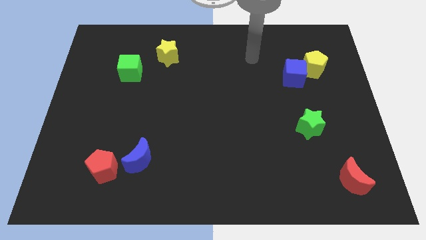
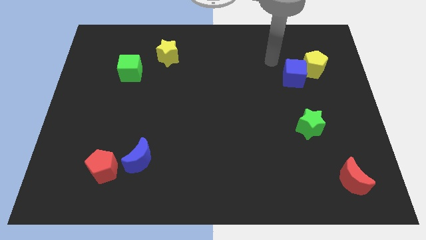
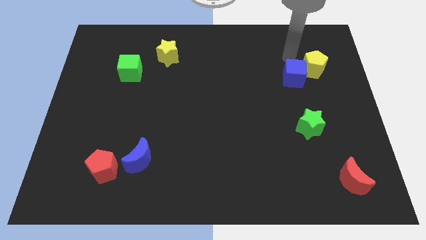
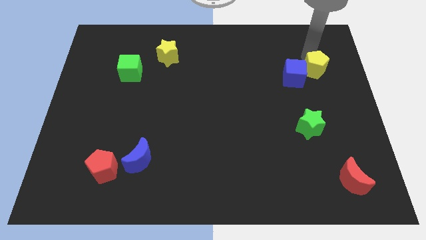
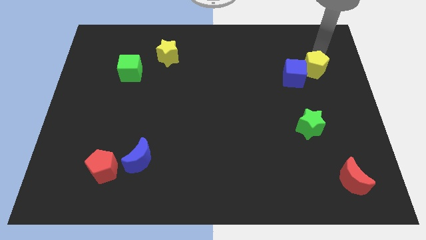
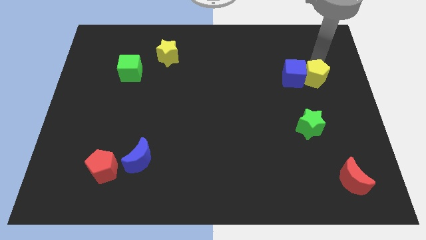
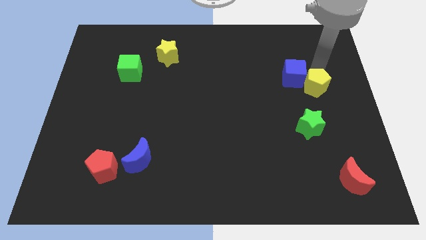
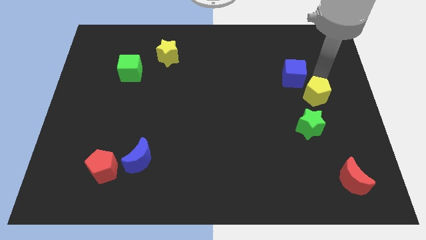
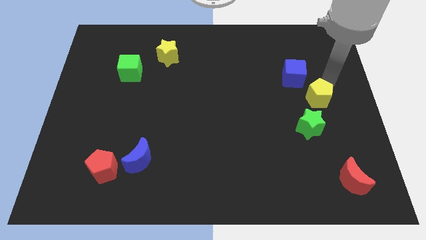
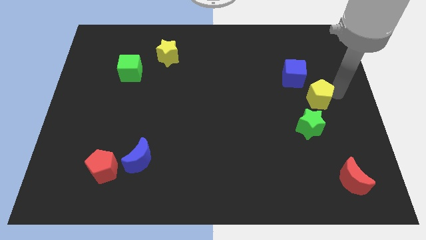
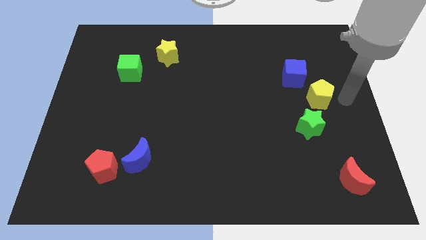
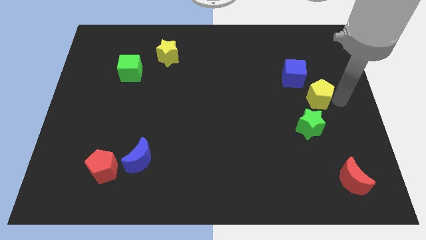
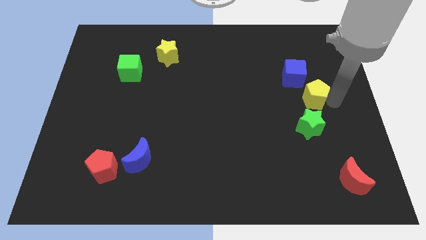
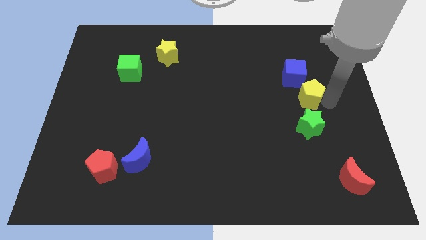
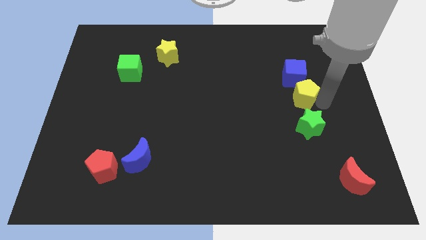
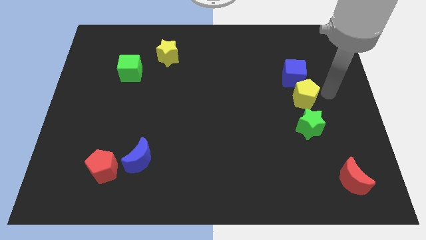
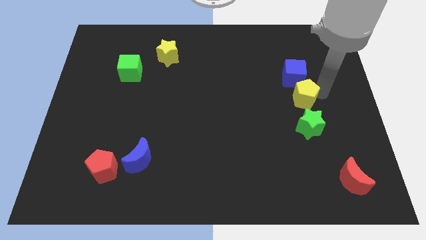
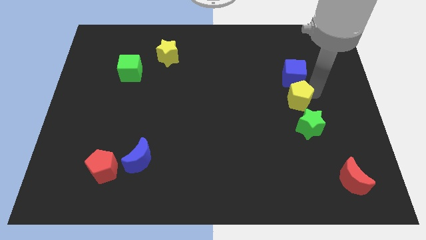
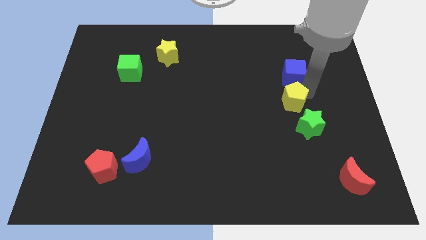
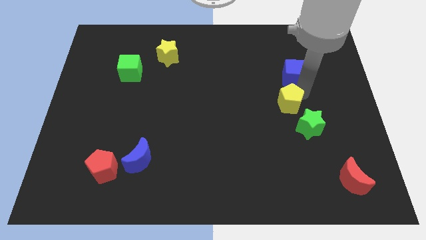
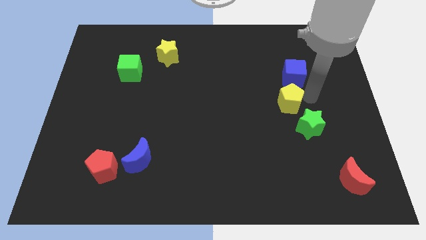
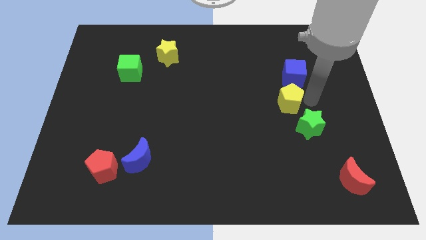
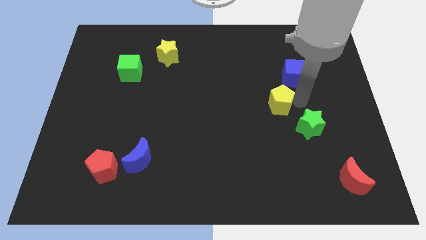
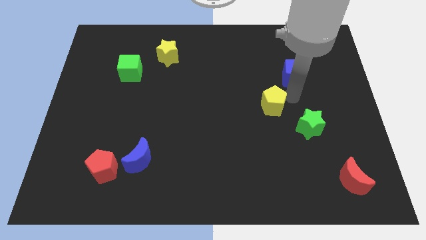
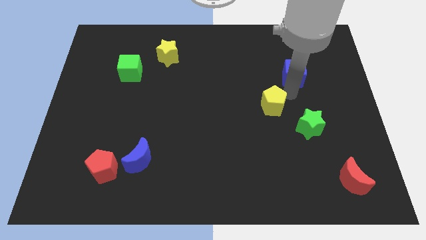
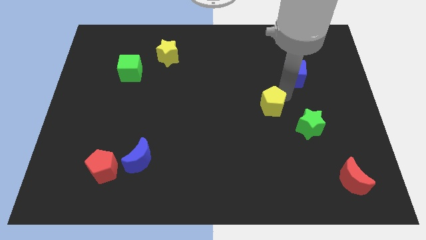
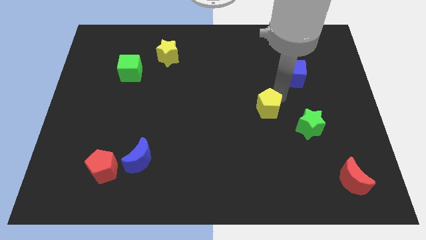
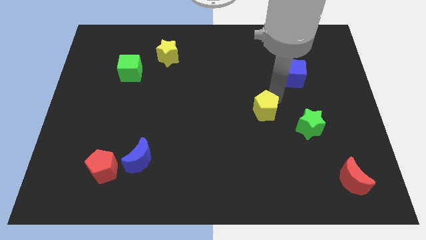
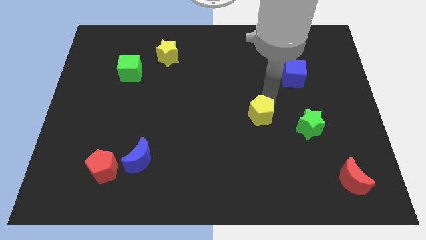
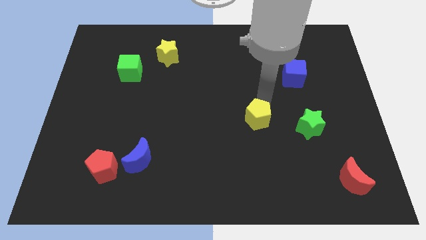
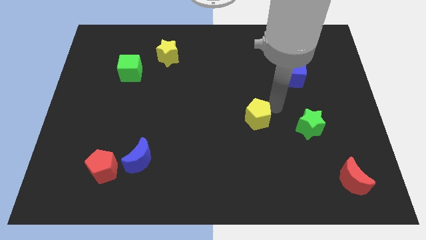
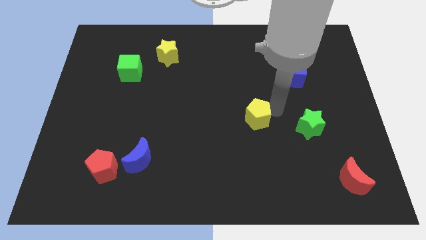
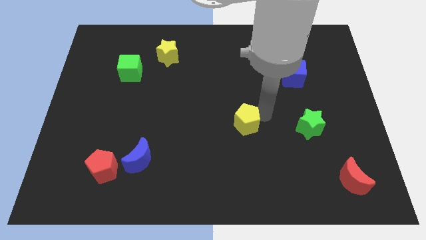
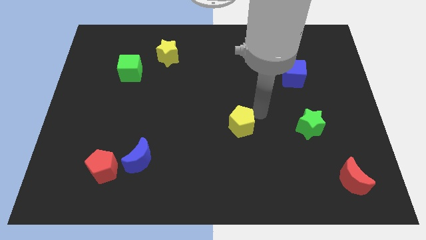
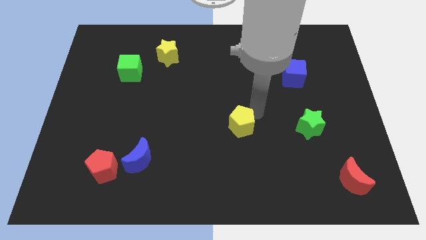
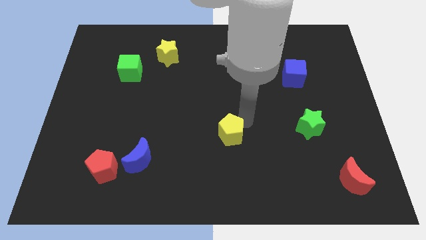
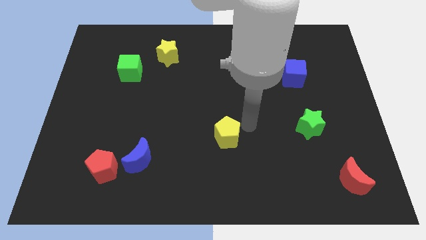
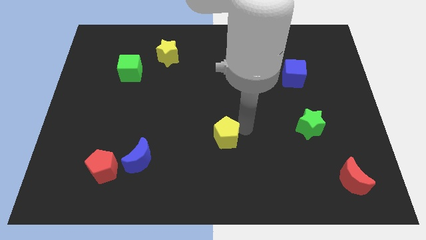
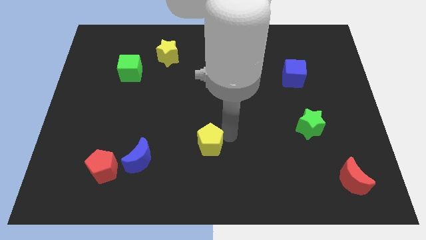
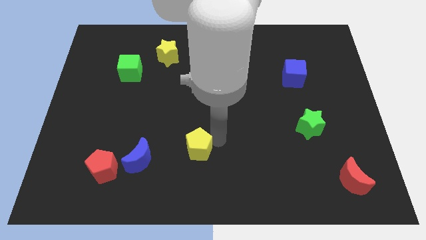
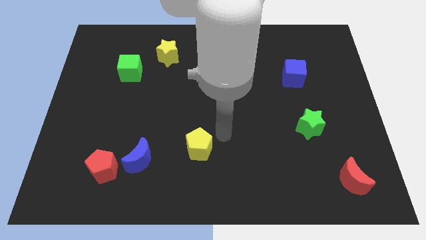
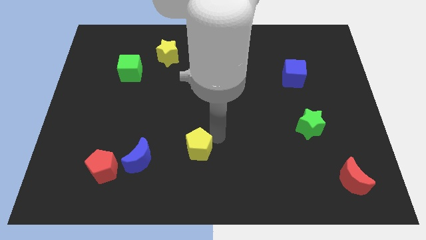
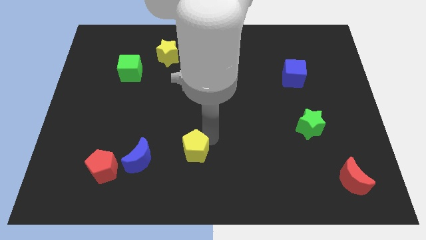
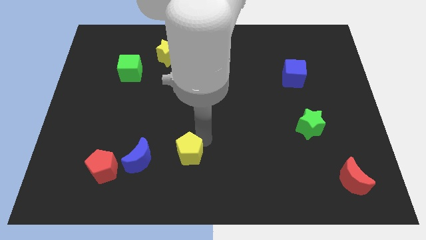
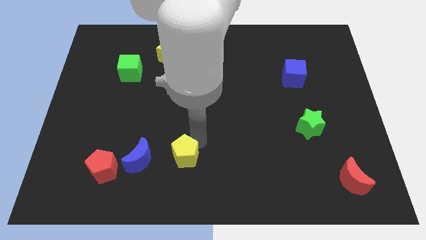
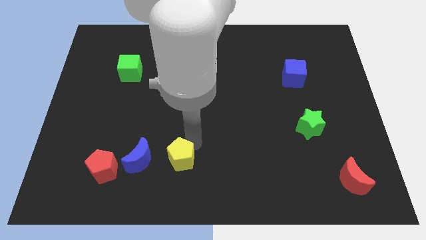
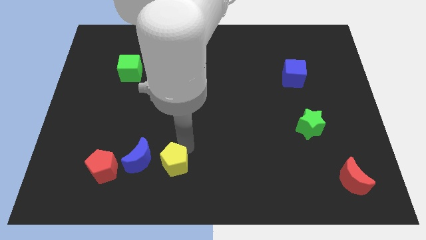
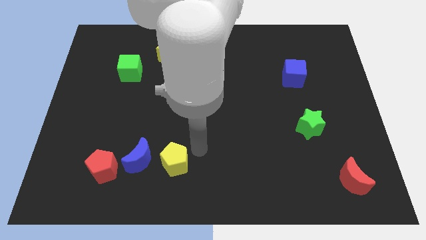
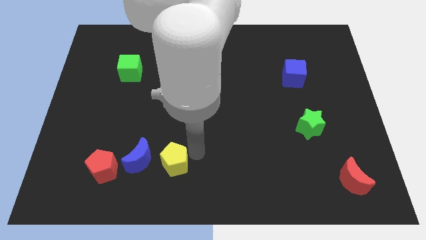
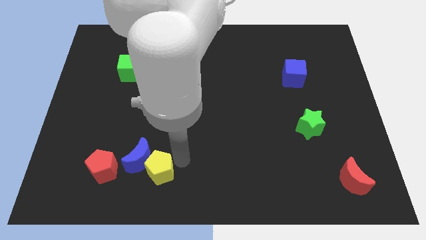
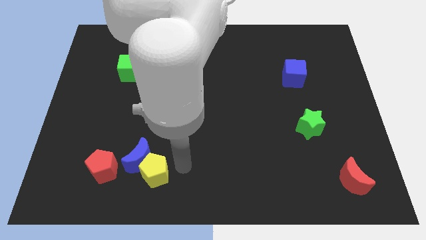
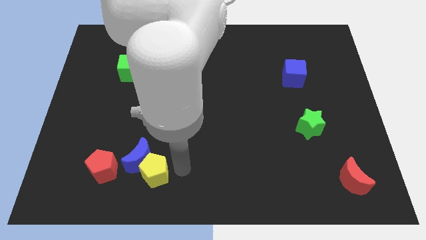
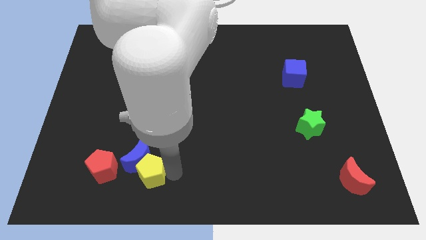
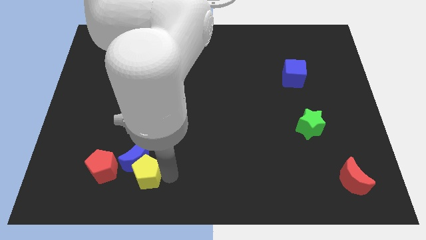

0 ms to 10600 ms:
slide the yellow pentagon to the bottom left of the blue moon

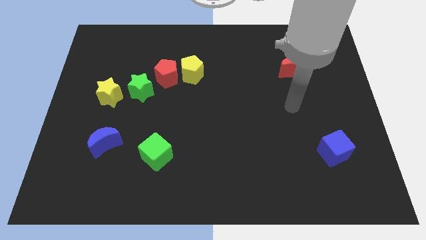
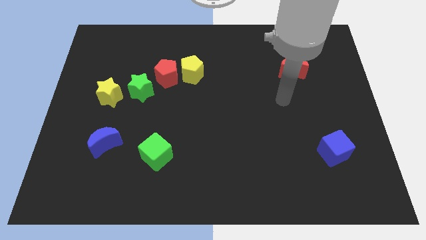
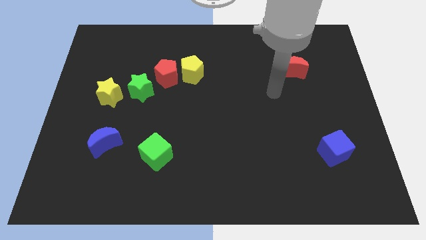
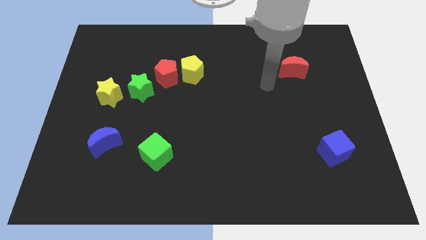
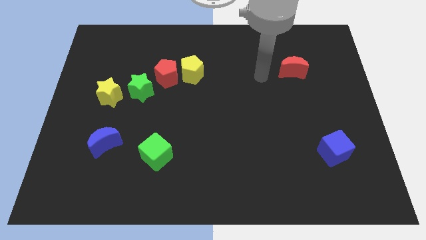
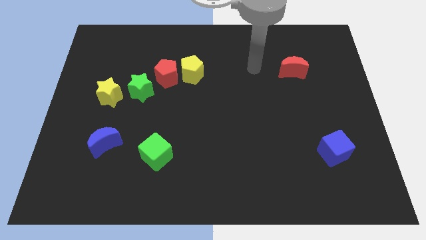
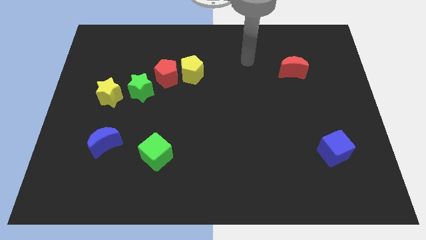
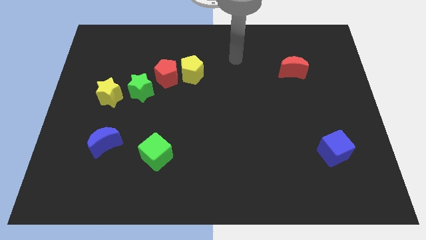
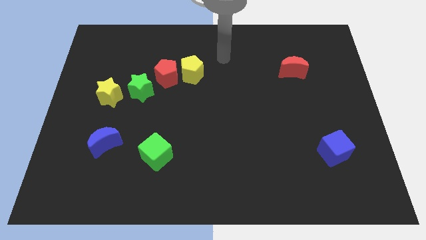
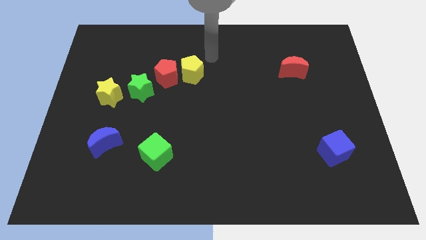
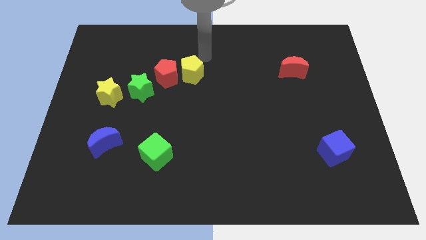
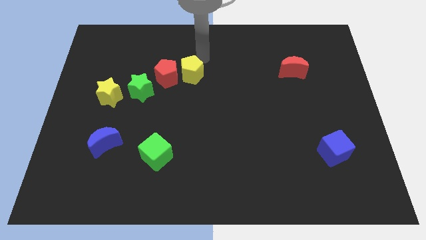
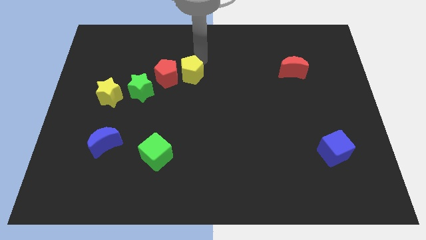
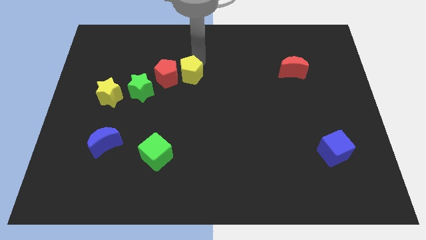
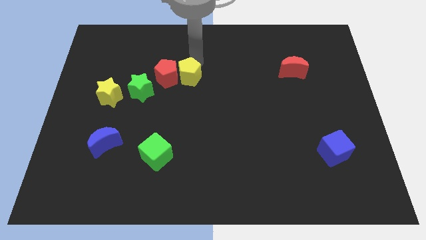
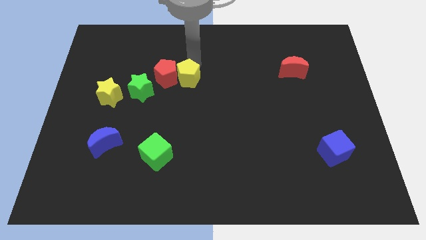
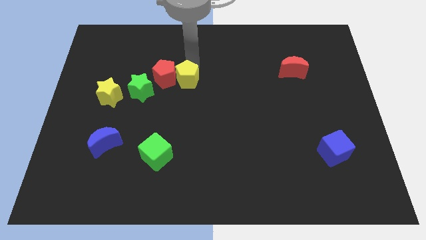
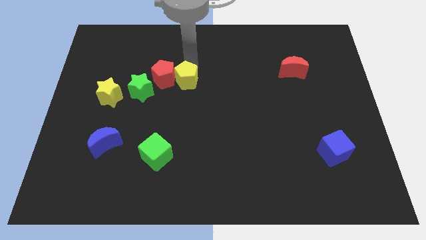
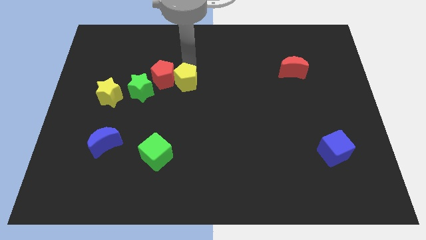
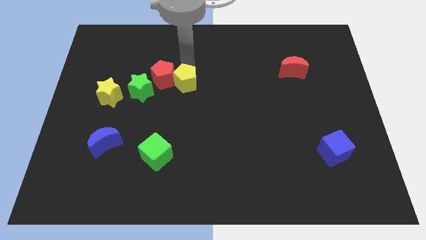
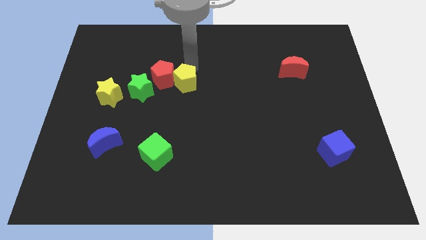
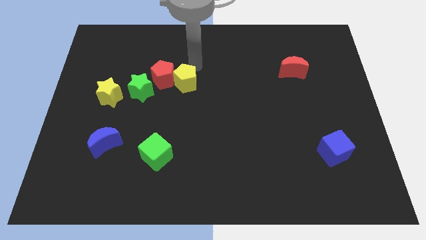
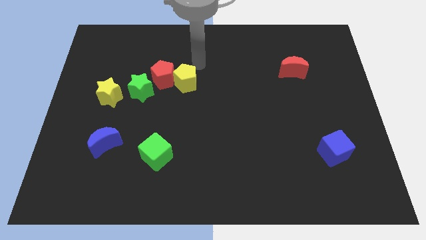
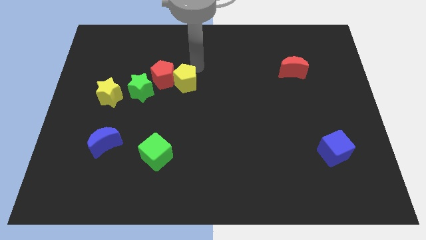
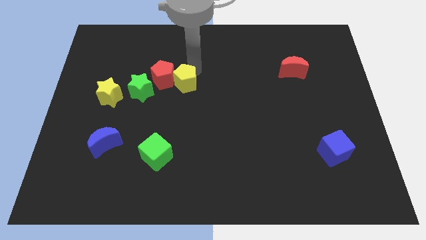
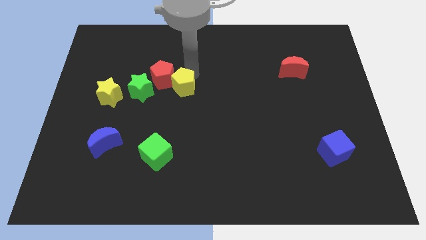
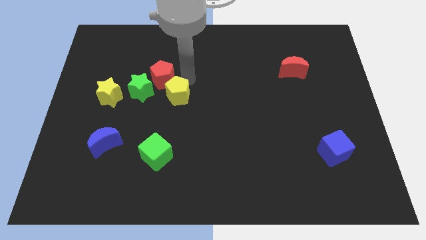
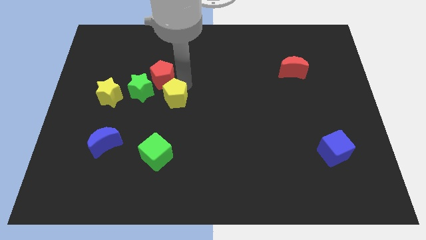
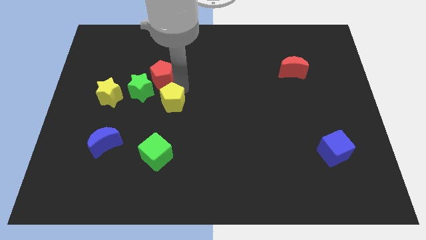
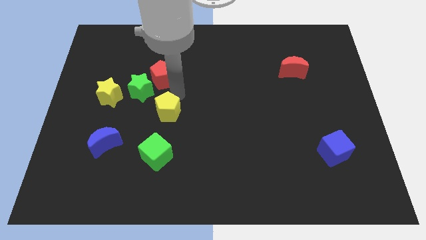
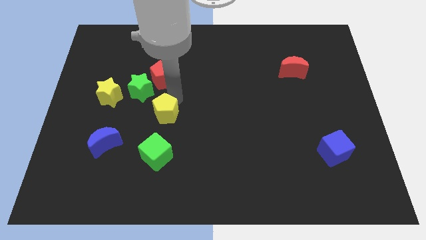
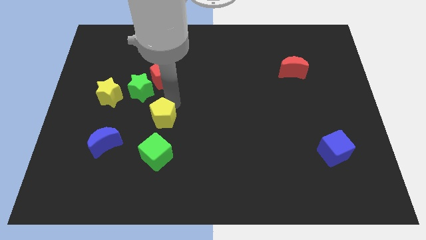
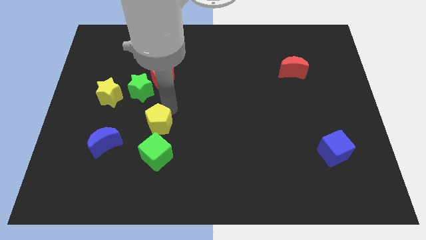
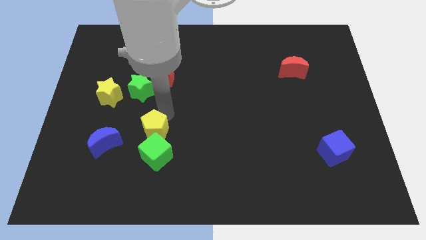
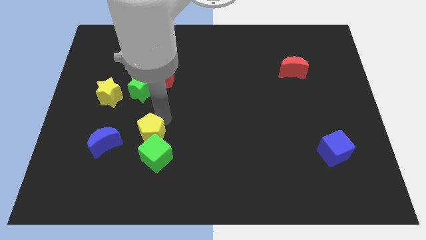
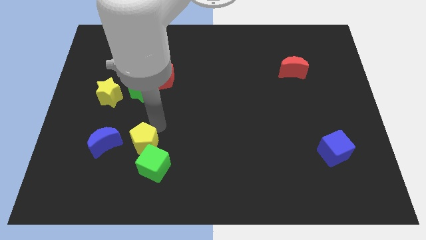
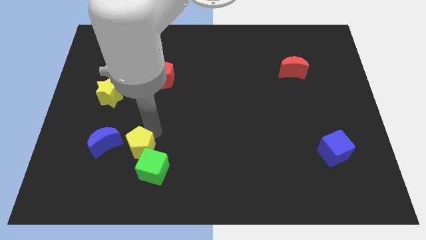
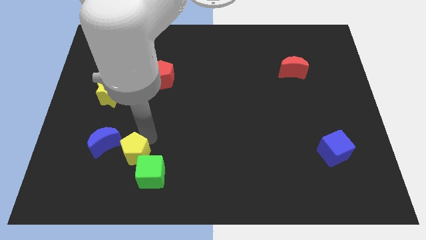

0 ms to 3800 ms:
put the yellow pentagon to the bottom right of the blue moon
